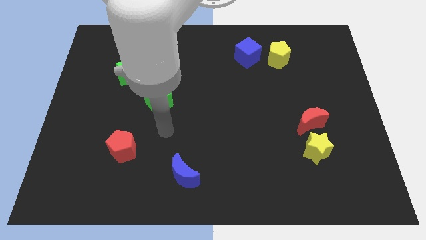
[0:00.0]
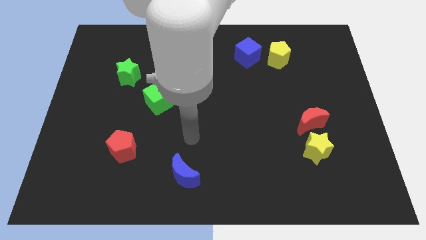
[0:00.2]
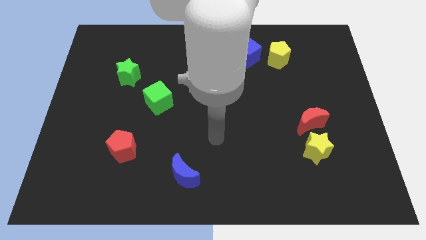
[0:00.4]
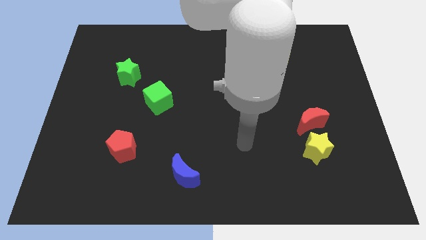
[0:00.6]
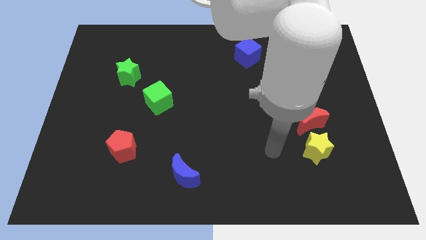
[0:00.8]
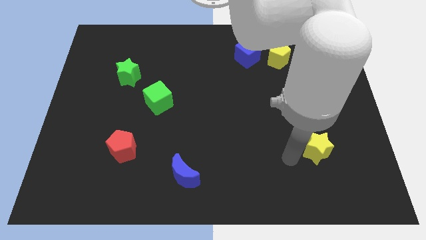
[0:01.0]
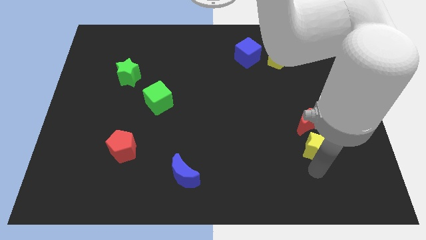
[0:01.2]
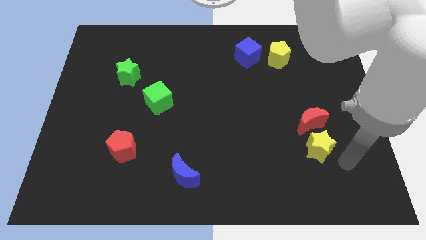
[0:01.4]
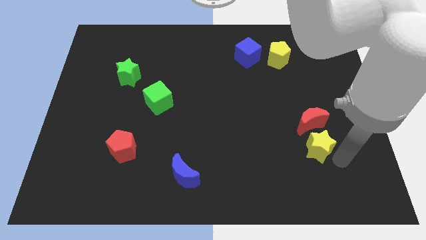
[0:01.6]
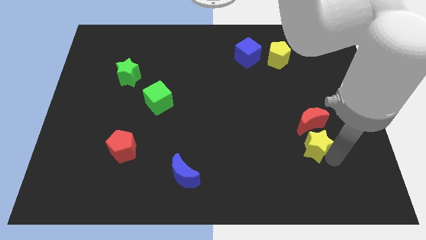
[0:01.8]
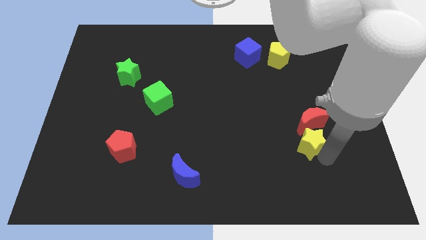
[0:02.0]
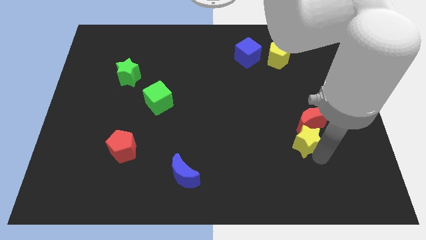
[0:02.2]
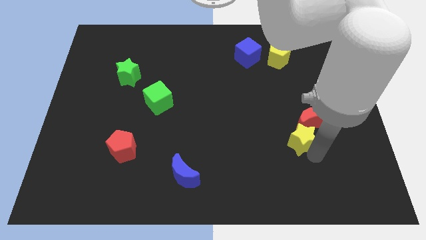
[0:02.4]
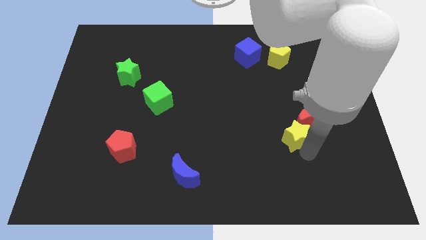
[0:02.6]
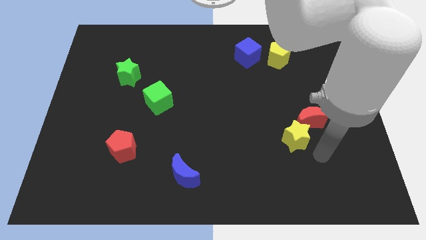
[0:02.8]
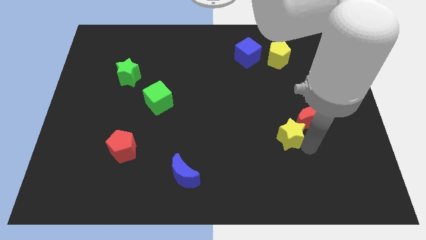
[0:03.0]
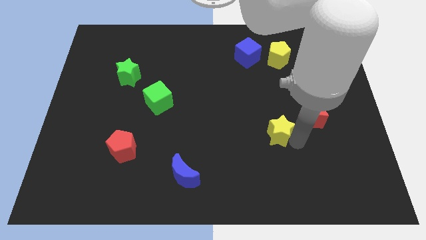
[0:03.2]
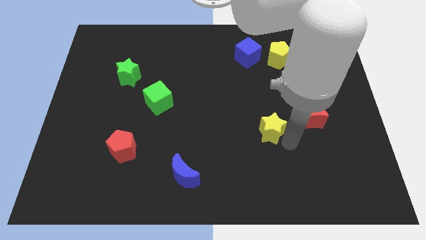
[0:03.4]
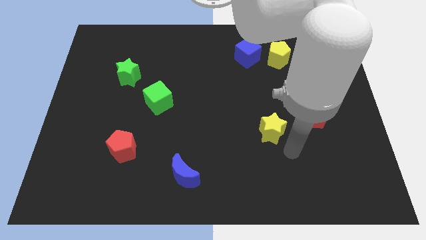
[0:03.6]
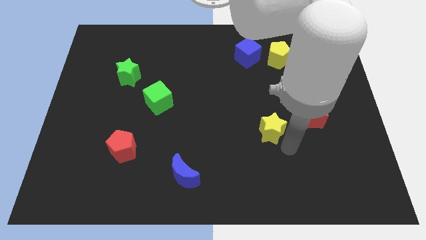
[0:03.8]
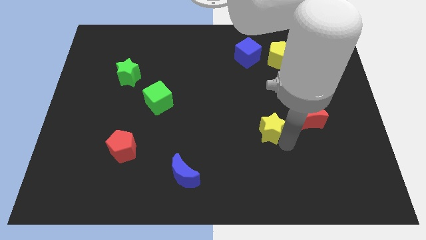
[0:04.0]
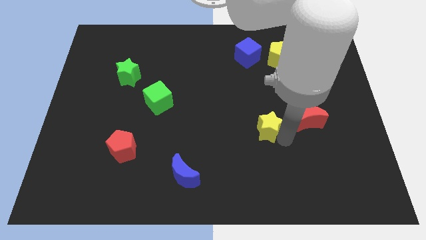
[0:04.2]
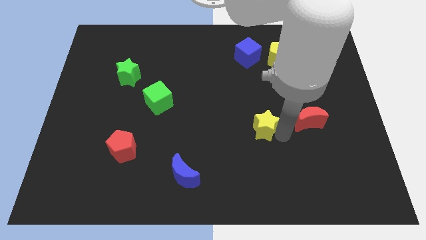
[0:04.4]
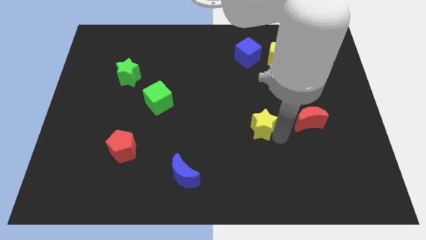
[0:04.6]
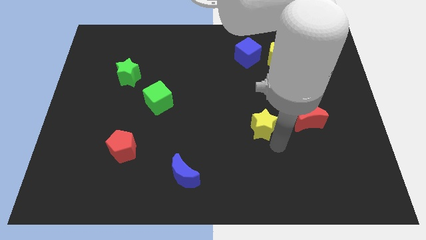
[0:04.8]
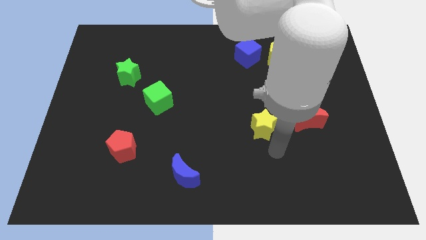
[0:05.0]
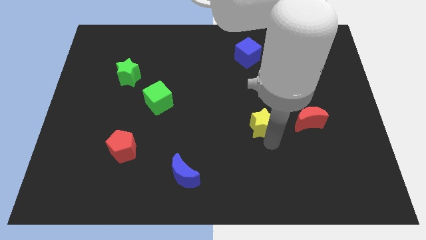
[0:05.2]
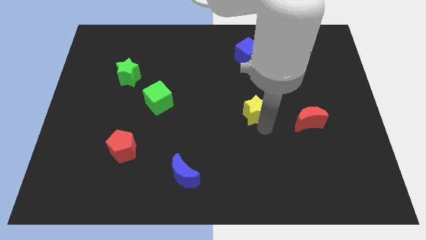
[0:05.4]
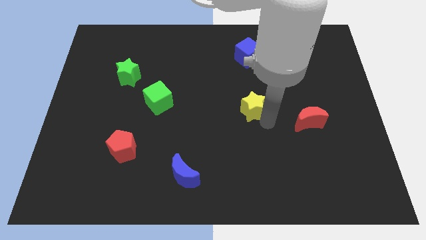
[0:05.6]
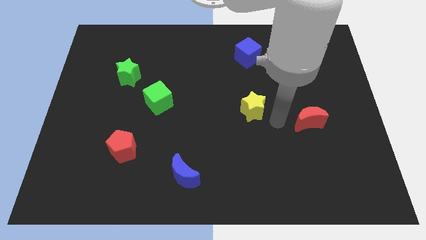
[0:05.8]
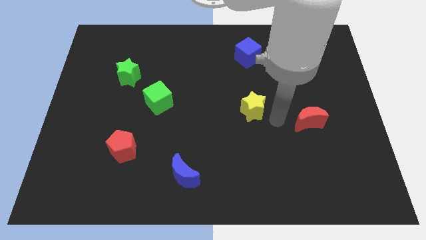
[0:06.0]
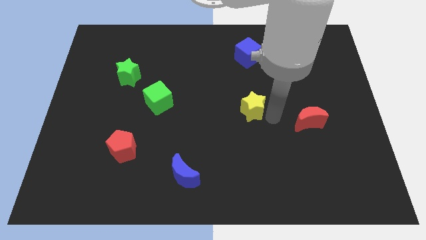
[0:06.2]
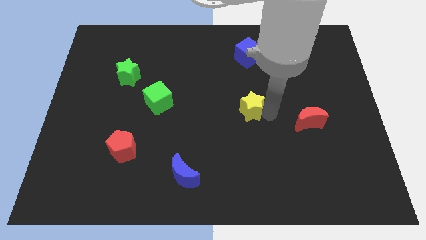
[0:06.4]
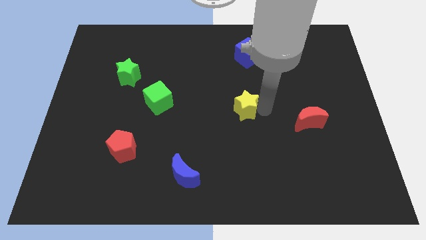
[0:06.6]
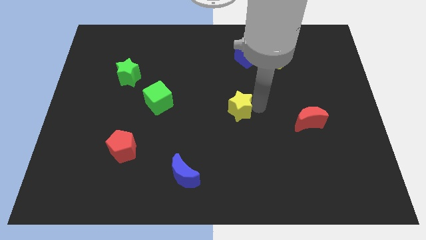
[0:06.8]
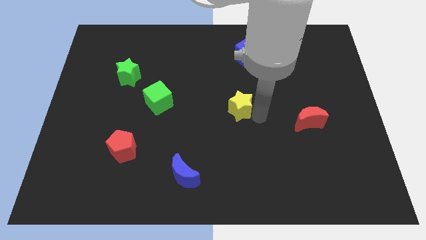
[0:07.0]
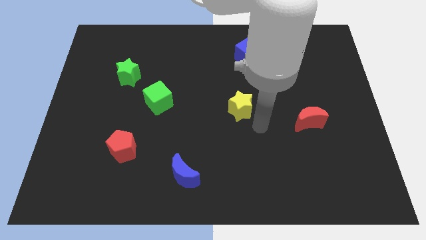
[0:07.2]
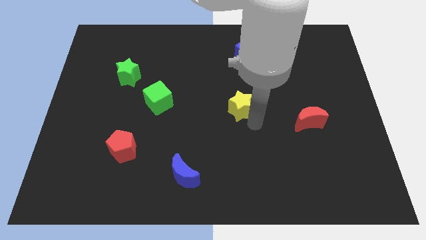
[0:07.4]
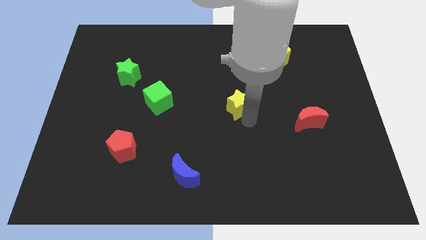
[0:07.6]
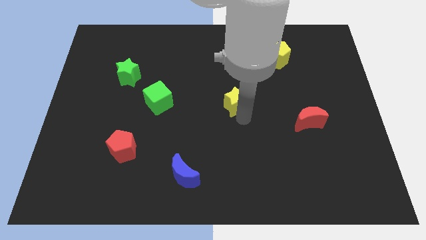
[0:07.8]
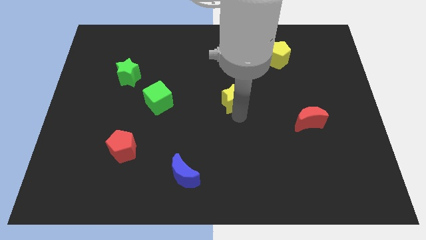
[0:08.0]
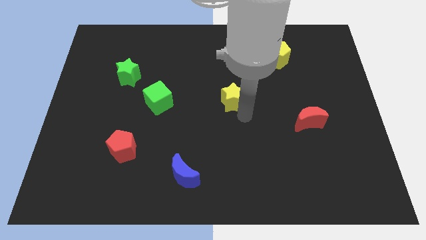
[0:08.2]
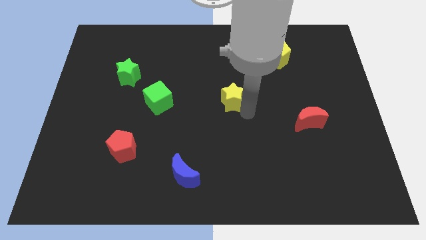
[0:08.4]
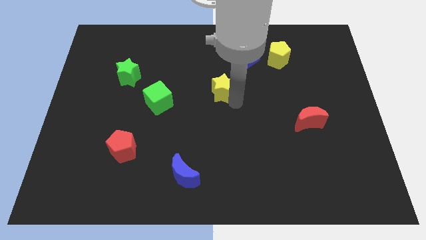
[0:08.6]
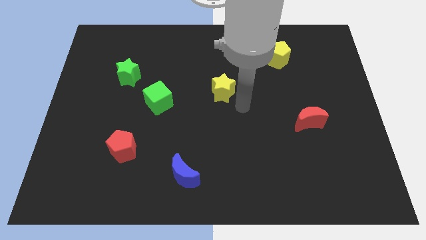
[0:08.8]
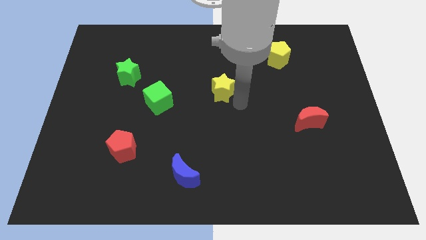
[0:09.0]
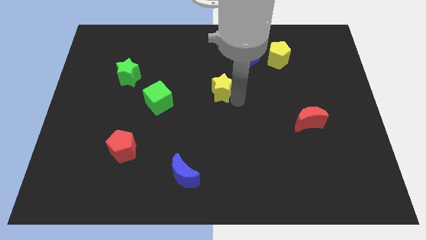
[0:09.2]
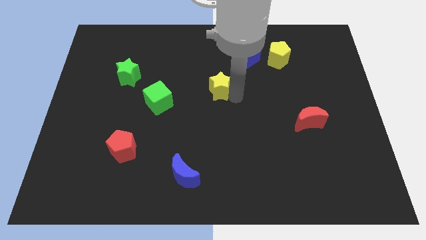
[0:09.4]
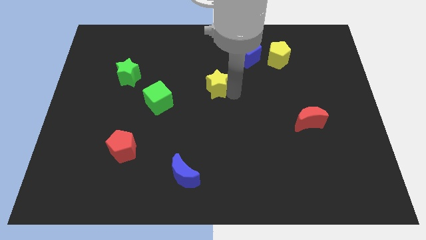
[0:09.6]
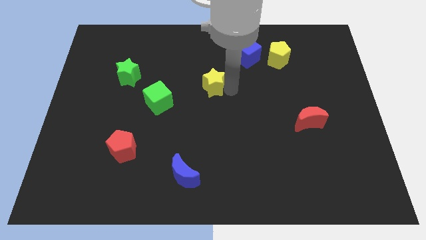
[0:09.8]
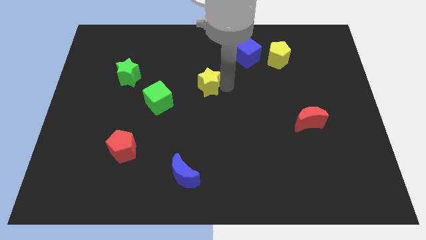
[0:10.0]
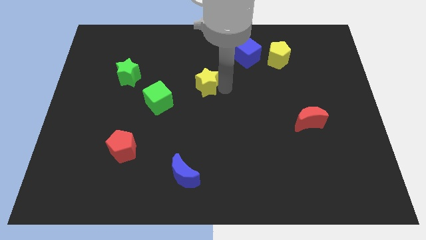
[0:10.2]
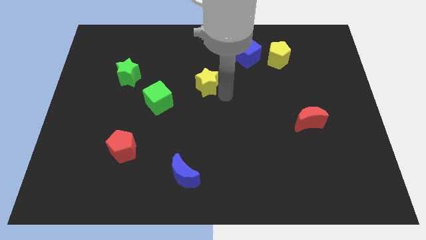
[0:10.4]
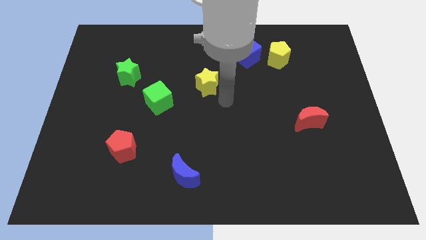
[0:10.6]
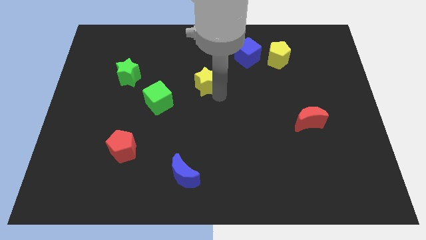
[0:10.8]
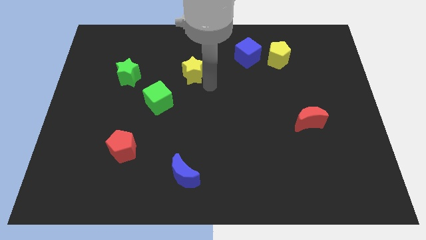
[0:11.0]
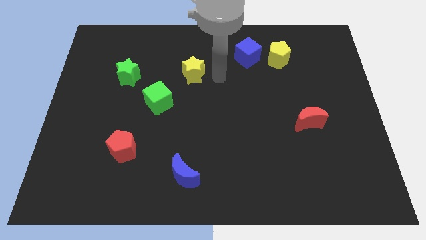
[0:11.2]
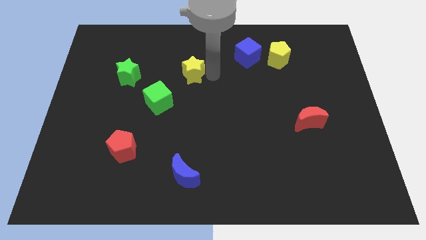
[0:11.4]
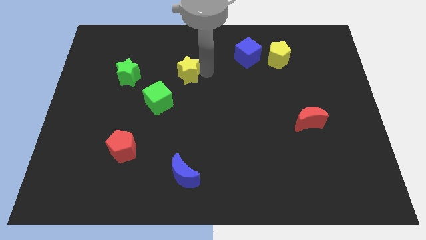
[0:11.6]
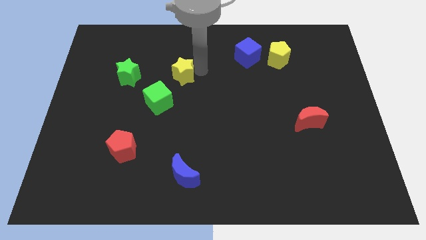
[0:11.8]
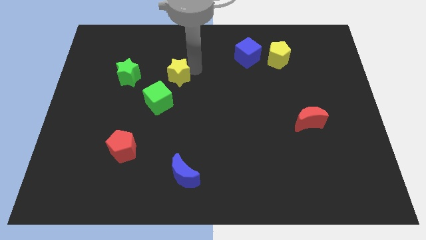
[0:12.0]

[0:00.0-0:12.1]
slide the yellow star to the top side of the green cube
